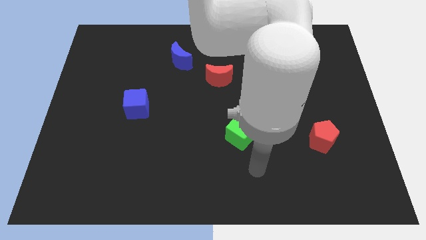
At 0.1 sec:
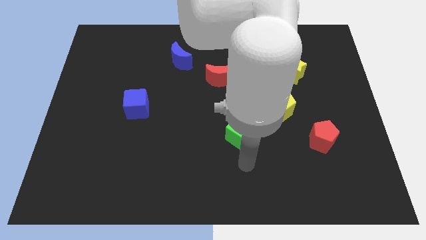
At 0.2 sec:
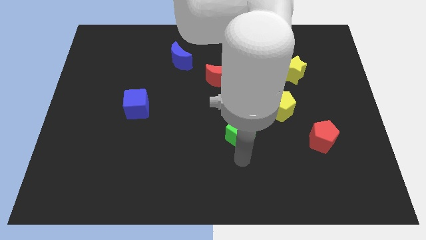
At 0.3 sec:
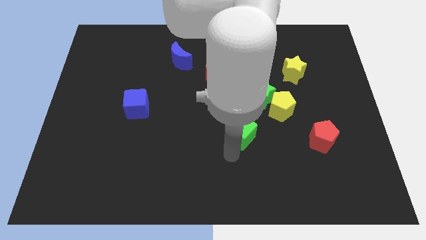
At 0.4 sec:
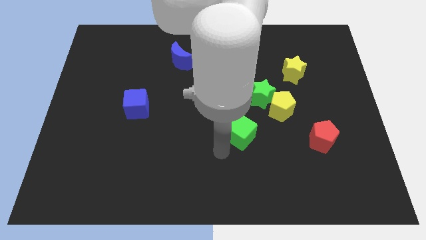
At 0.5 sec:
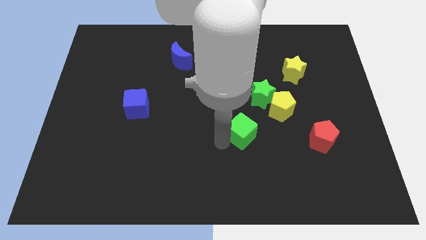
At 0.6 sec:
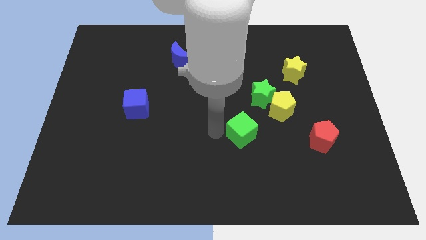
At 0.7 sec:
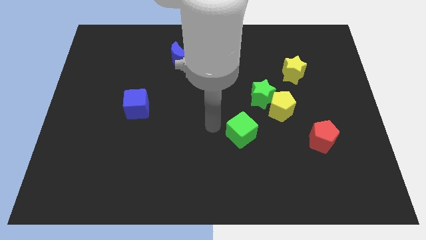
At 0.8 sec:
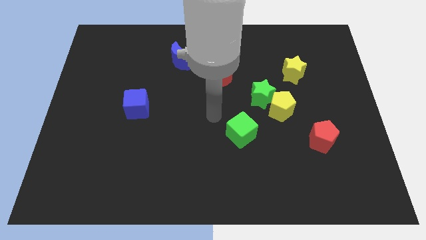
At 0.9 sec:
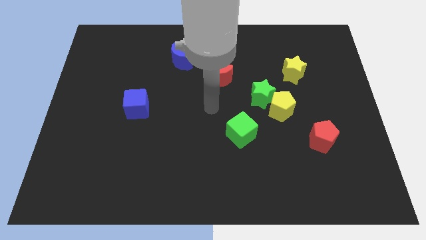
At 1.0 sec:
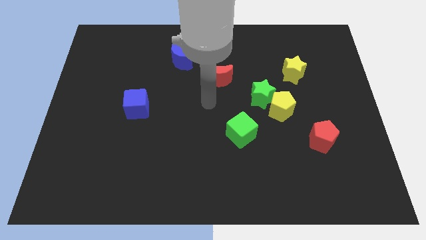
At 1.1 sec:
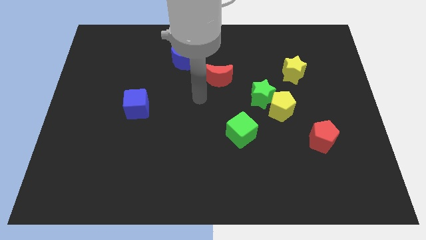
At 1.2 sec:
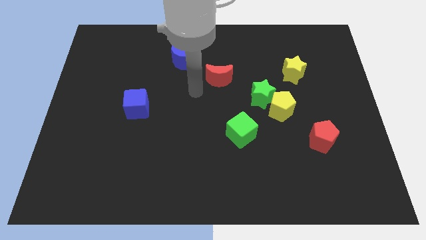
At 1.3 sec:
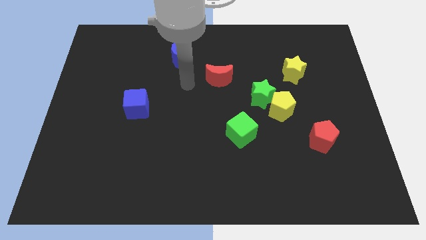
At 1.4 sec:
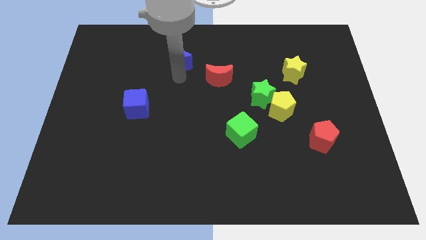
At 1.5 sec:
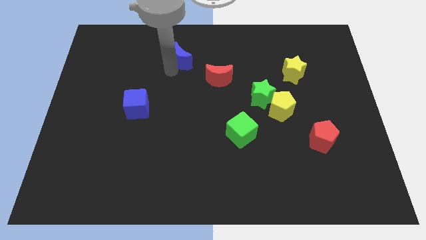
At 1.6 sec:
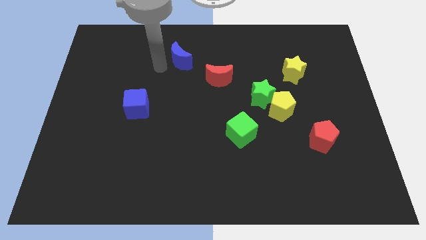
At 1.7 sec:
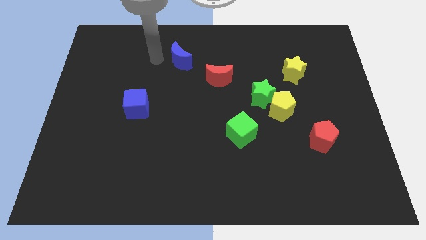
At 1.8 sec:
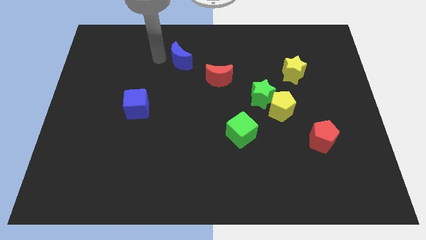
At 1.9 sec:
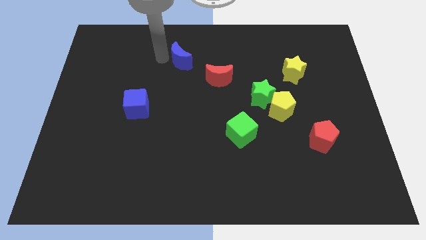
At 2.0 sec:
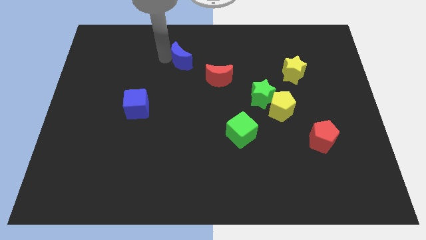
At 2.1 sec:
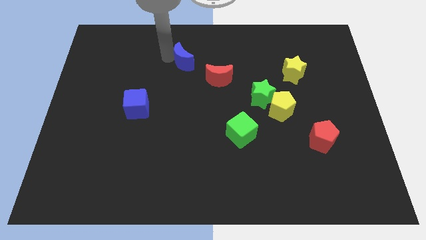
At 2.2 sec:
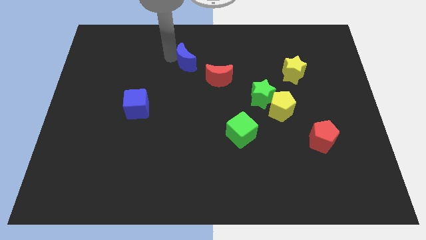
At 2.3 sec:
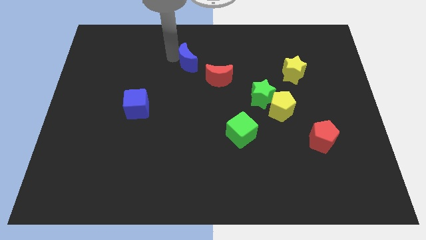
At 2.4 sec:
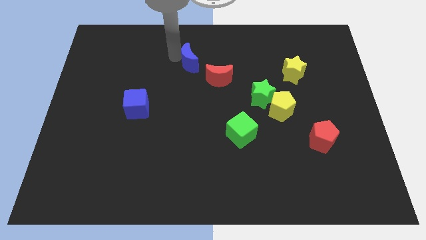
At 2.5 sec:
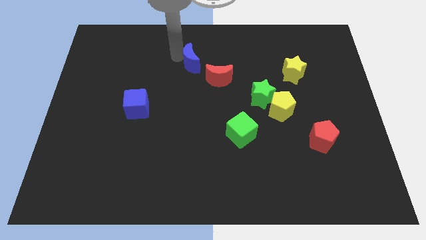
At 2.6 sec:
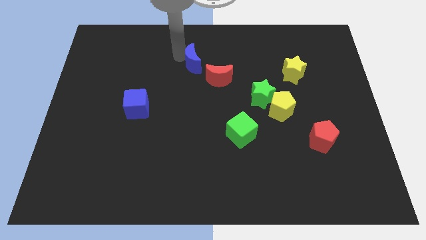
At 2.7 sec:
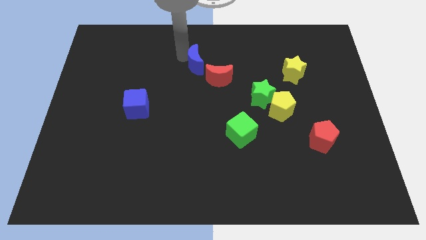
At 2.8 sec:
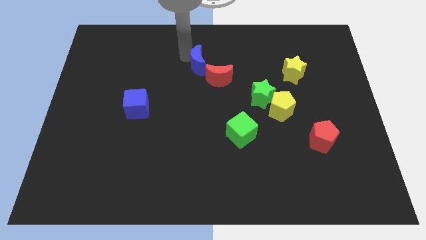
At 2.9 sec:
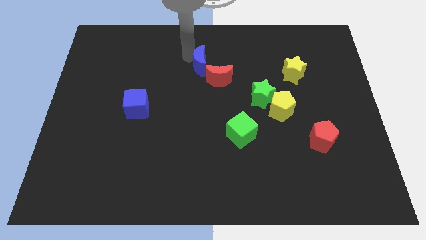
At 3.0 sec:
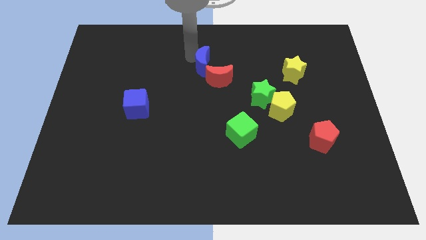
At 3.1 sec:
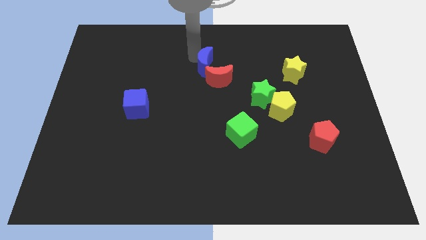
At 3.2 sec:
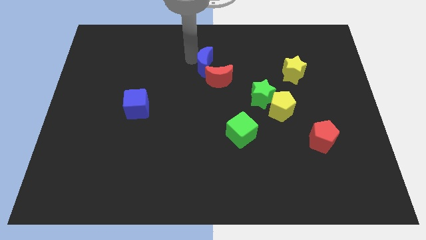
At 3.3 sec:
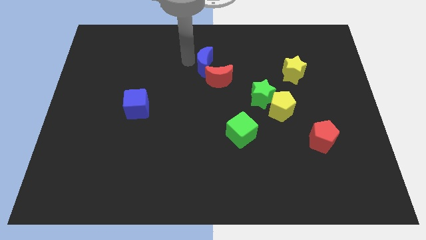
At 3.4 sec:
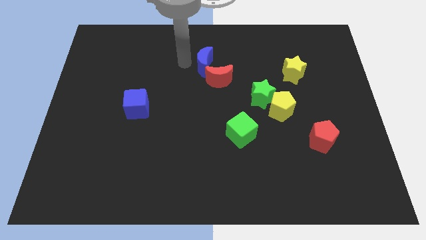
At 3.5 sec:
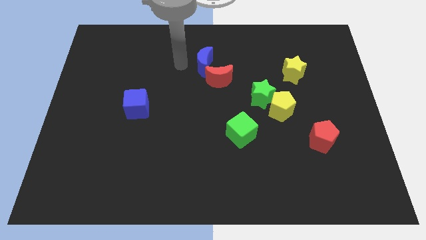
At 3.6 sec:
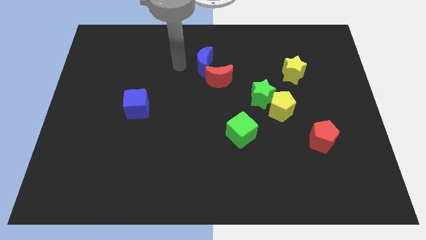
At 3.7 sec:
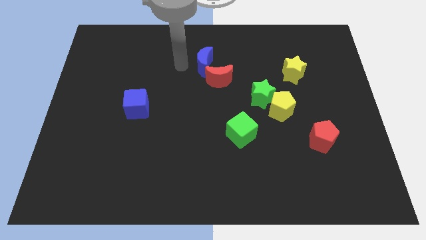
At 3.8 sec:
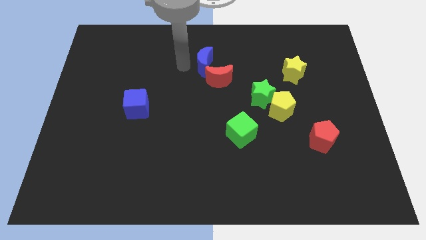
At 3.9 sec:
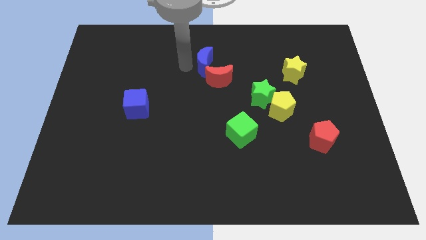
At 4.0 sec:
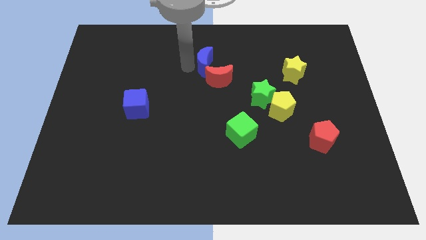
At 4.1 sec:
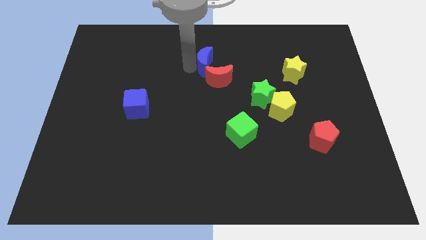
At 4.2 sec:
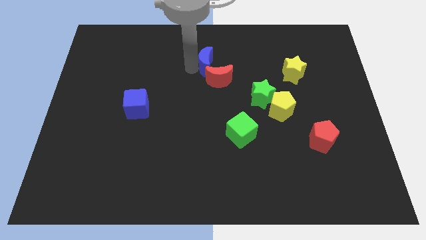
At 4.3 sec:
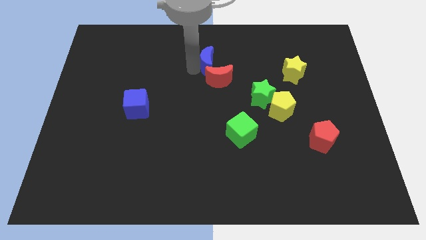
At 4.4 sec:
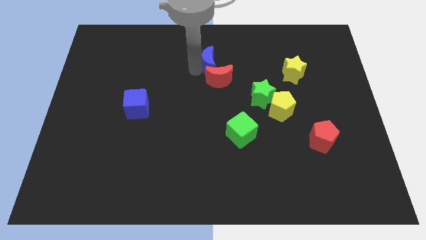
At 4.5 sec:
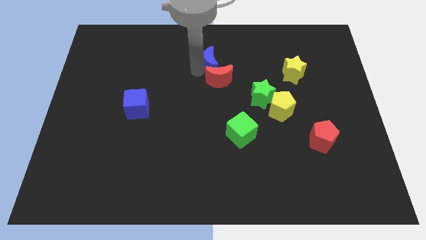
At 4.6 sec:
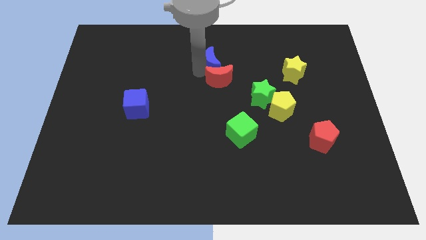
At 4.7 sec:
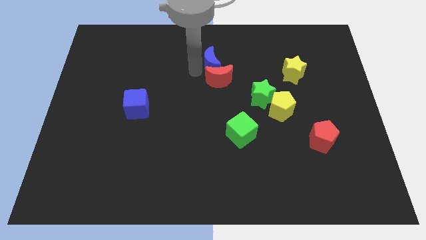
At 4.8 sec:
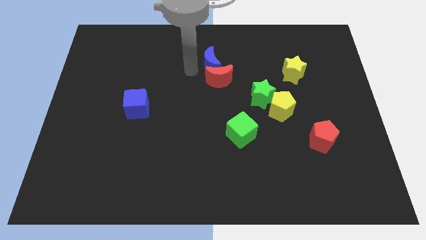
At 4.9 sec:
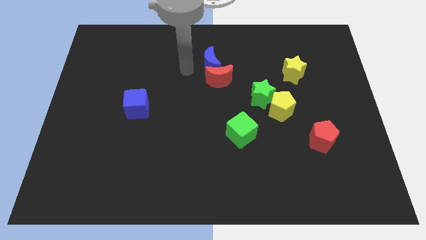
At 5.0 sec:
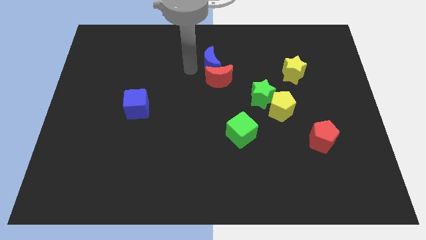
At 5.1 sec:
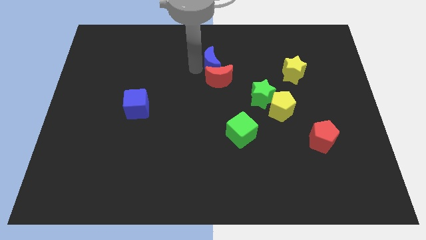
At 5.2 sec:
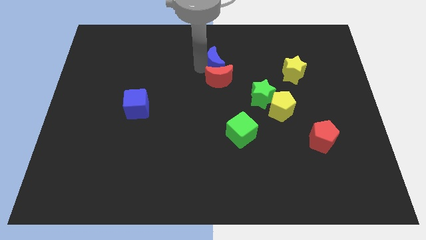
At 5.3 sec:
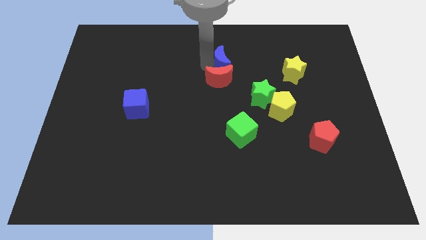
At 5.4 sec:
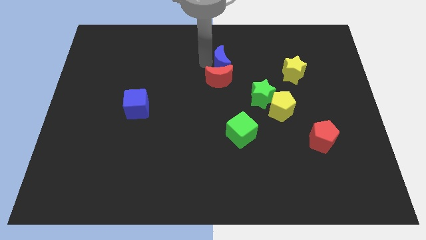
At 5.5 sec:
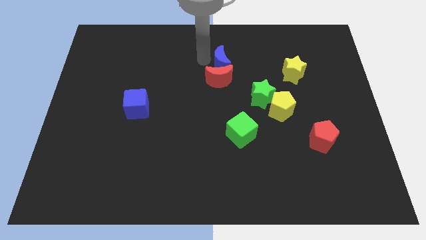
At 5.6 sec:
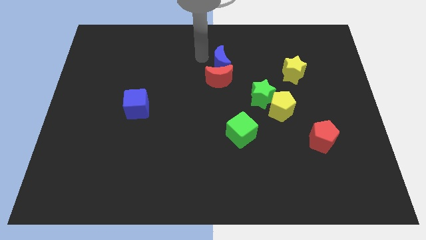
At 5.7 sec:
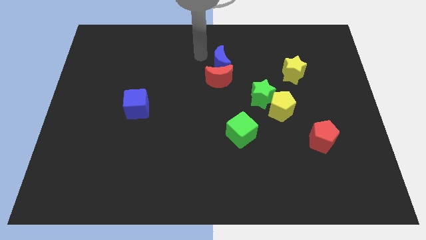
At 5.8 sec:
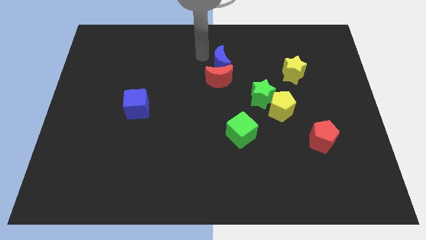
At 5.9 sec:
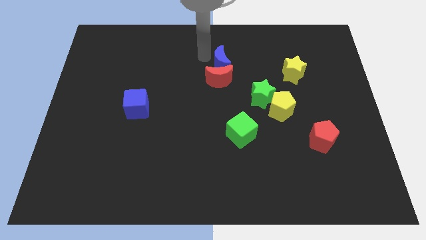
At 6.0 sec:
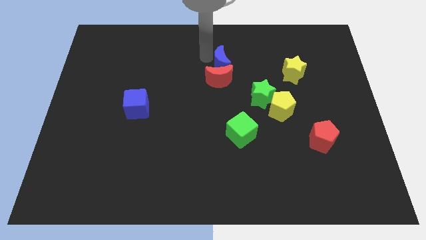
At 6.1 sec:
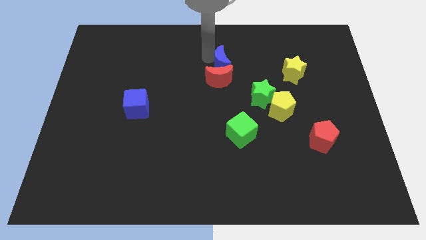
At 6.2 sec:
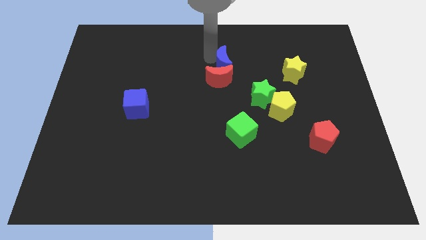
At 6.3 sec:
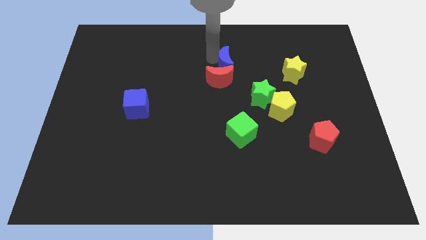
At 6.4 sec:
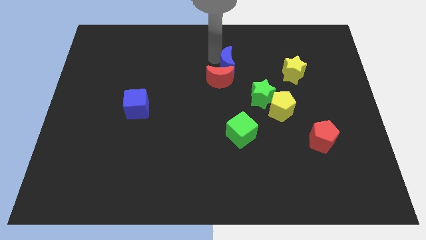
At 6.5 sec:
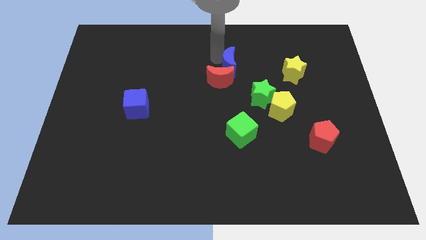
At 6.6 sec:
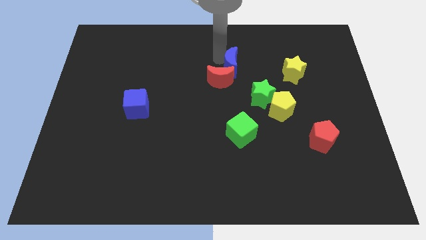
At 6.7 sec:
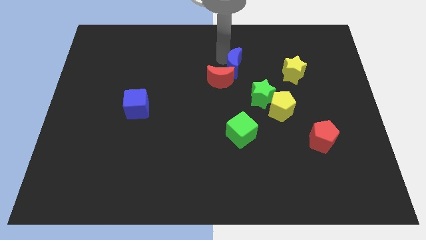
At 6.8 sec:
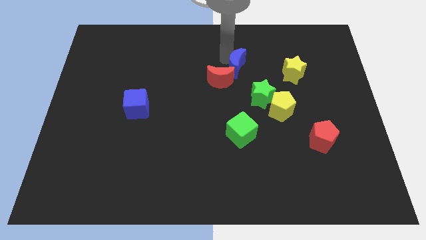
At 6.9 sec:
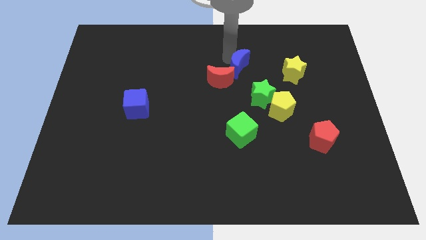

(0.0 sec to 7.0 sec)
push the blue moon to the right of the red moon
